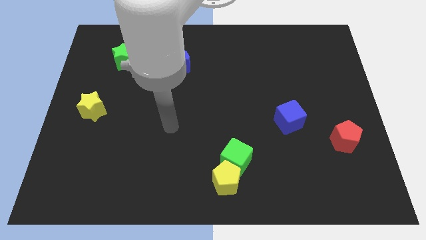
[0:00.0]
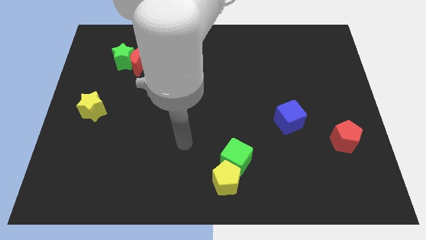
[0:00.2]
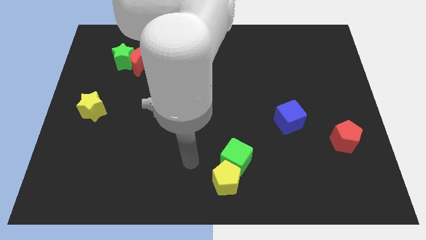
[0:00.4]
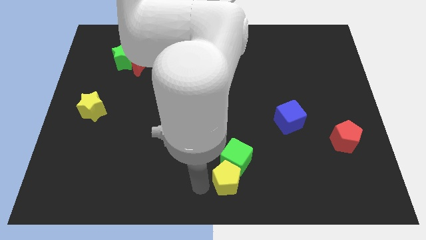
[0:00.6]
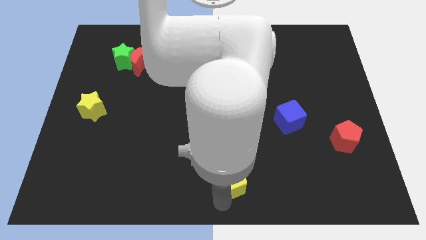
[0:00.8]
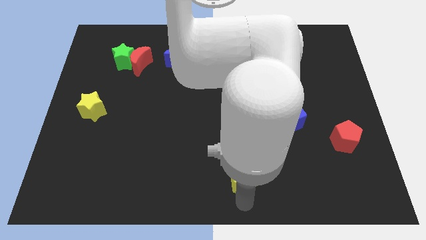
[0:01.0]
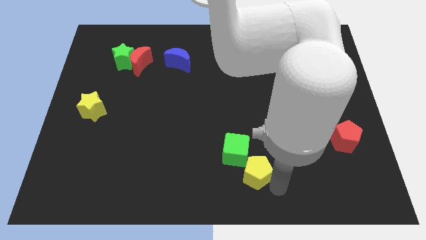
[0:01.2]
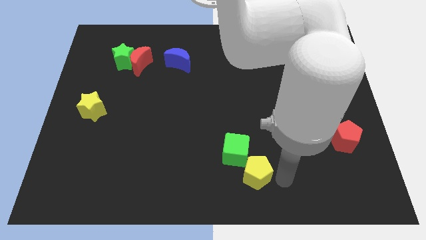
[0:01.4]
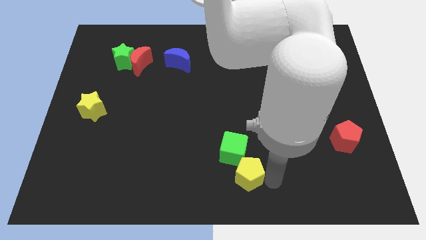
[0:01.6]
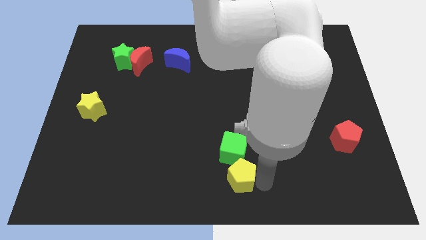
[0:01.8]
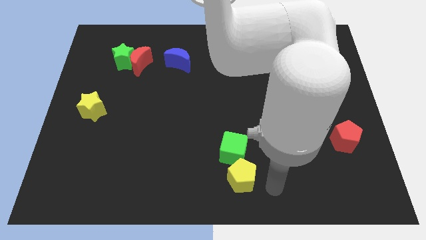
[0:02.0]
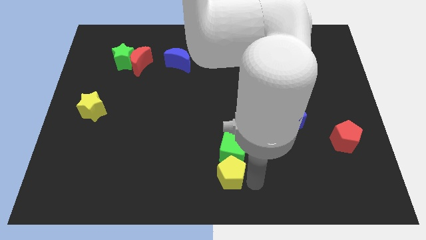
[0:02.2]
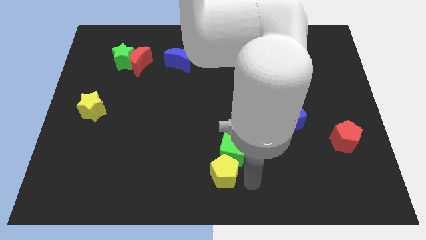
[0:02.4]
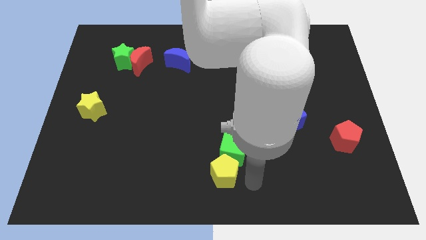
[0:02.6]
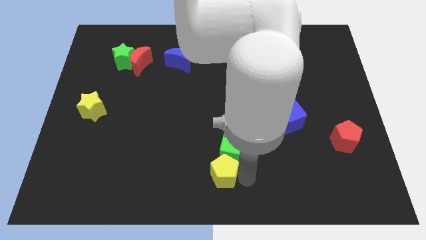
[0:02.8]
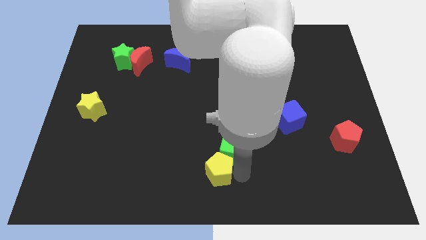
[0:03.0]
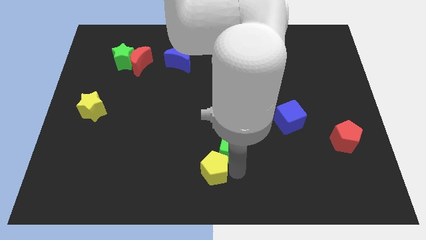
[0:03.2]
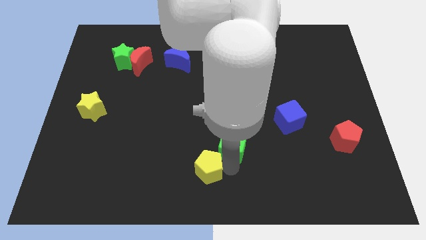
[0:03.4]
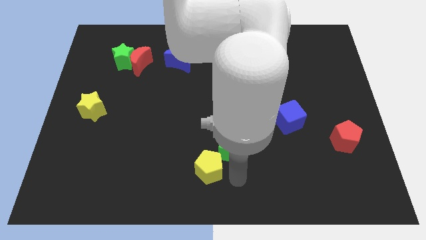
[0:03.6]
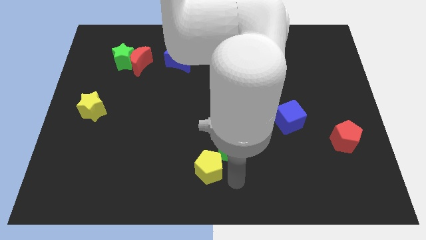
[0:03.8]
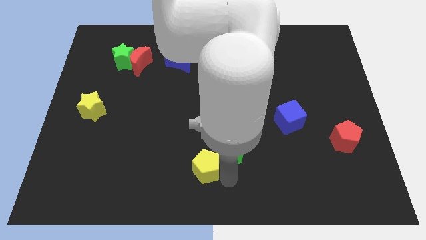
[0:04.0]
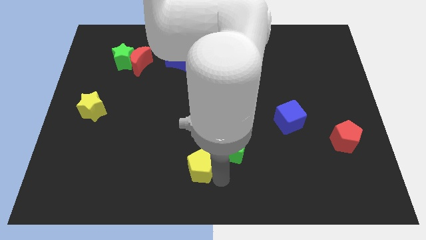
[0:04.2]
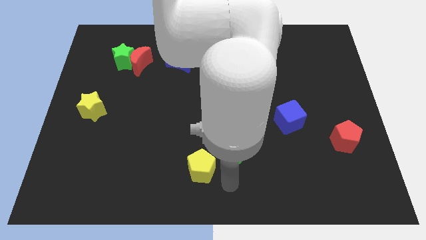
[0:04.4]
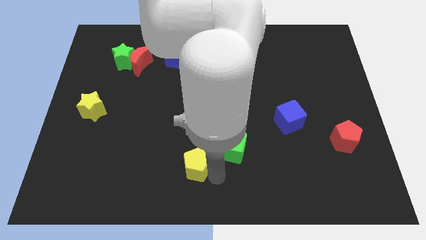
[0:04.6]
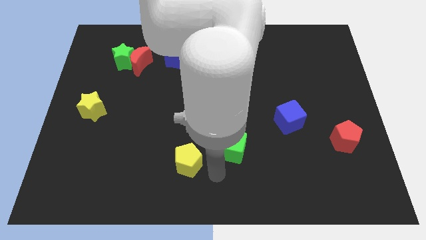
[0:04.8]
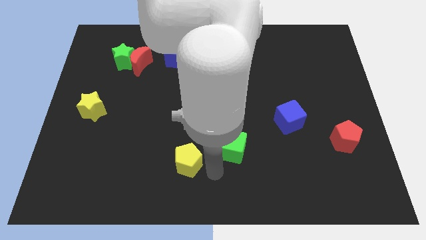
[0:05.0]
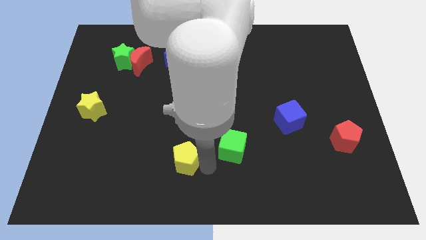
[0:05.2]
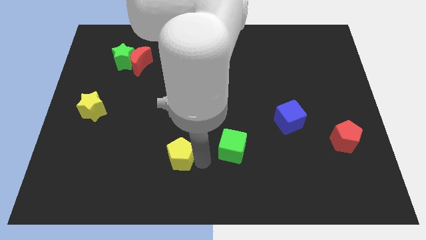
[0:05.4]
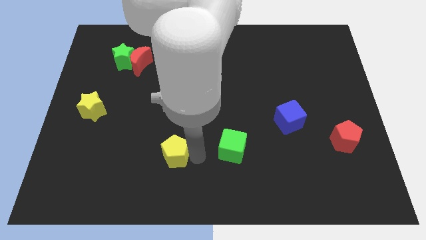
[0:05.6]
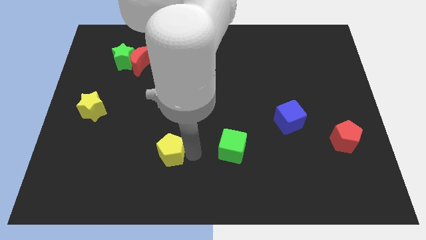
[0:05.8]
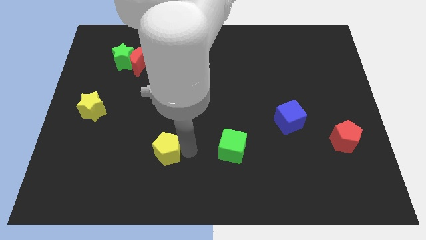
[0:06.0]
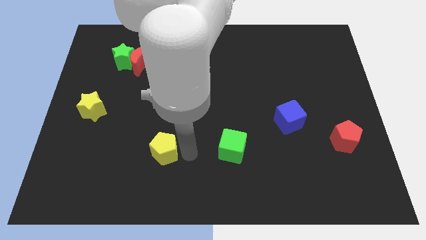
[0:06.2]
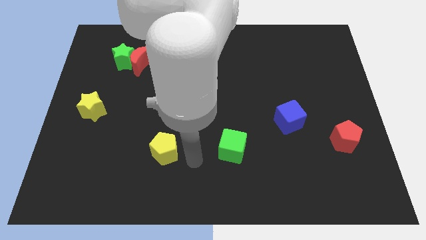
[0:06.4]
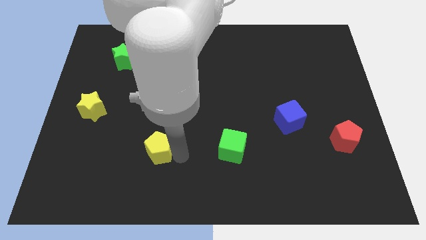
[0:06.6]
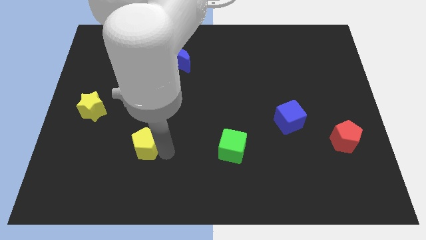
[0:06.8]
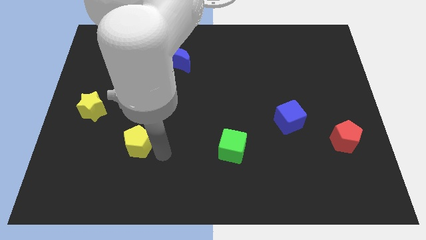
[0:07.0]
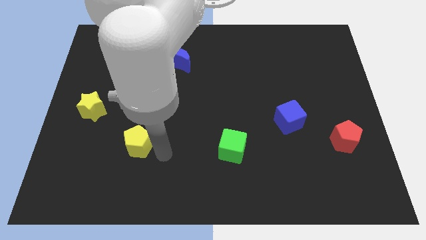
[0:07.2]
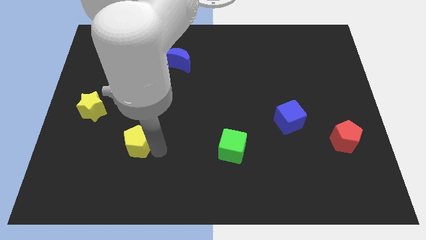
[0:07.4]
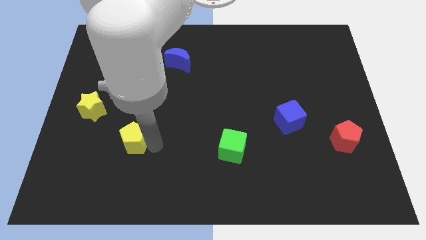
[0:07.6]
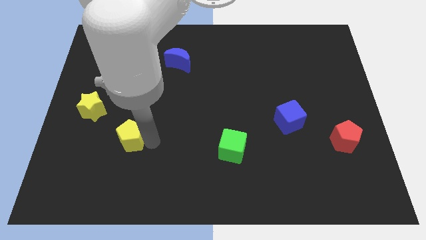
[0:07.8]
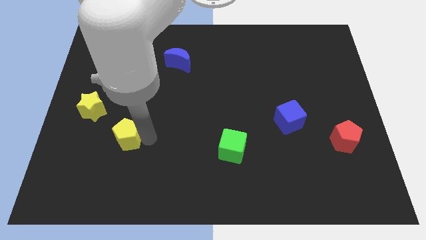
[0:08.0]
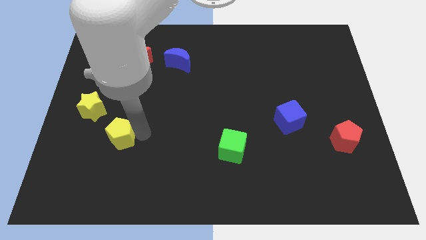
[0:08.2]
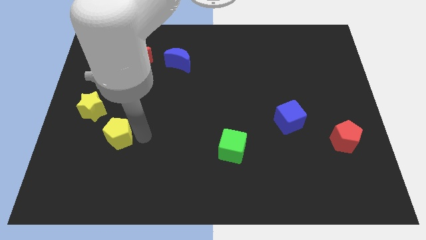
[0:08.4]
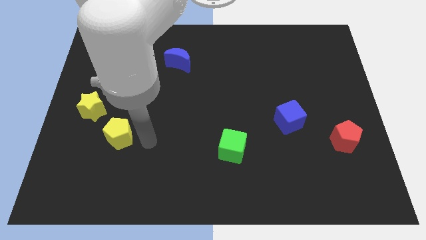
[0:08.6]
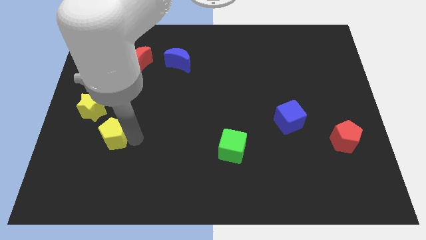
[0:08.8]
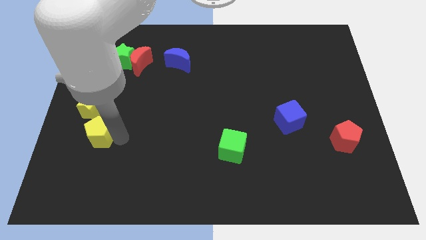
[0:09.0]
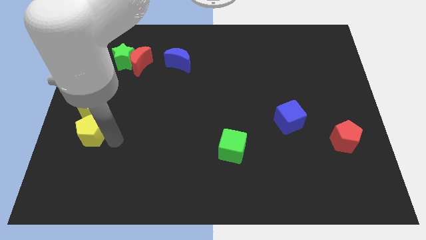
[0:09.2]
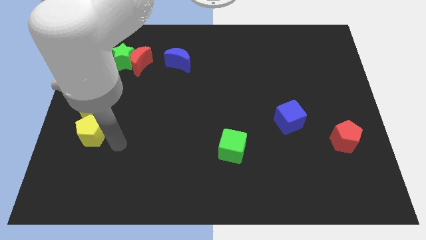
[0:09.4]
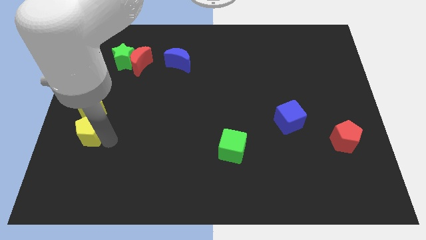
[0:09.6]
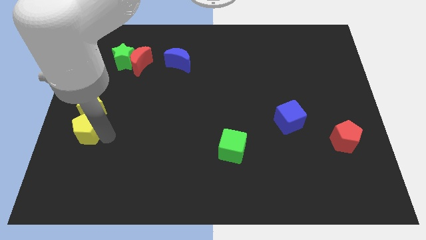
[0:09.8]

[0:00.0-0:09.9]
slide the yellow pentagon to the center left
